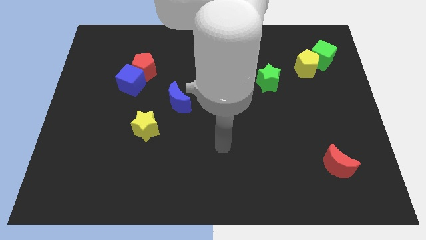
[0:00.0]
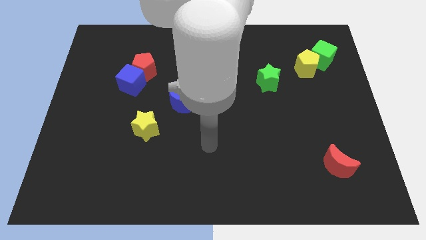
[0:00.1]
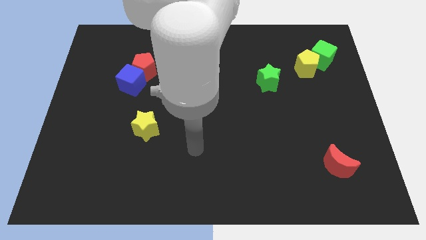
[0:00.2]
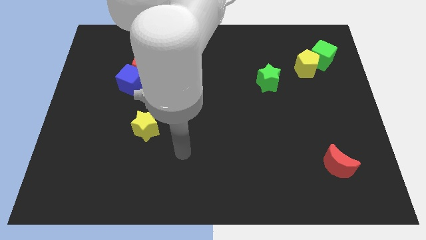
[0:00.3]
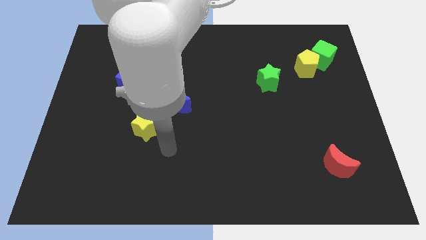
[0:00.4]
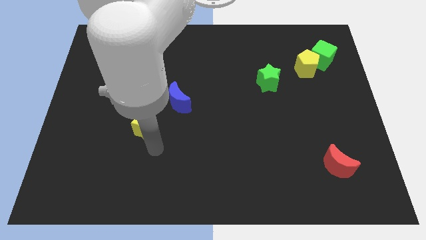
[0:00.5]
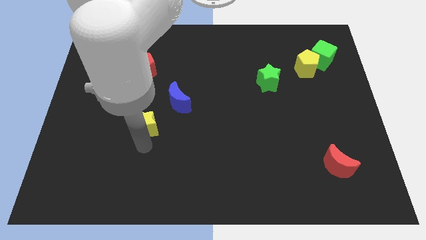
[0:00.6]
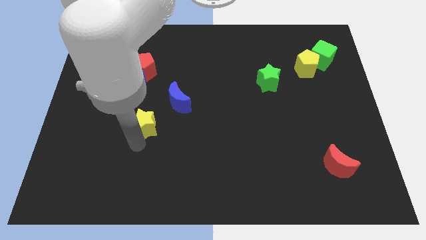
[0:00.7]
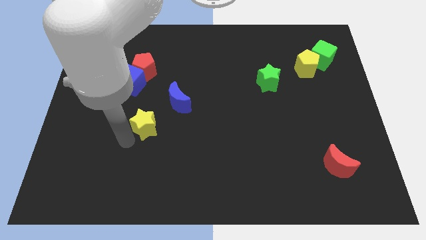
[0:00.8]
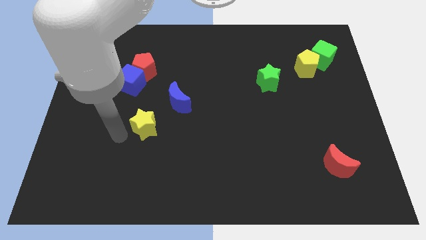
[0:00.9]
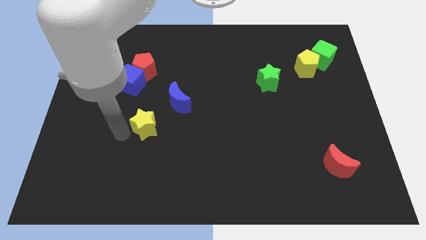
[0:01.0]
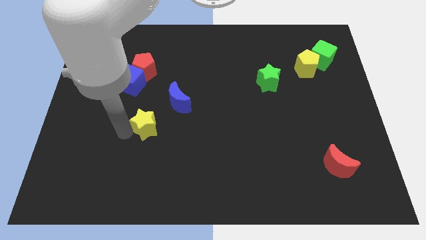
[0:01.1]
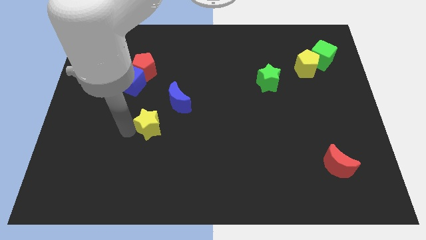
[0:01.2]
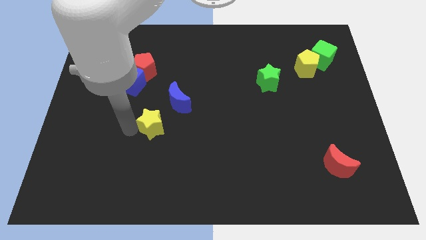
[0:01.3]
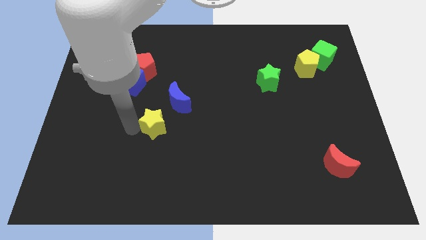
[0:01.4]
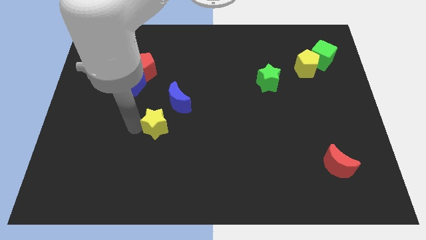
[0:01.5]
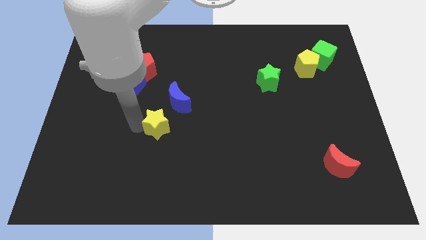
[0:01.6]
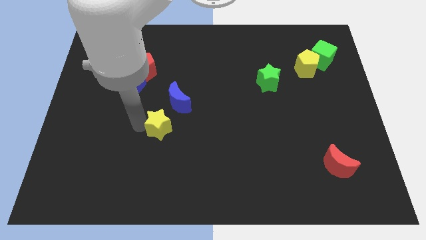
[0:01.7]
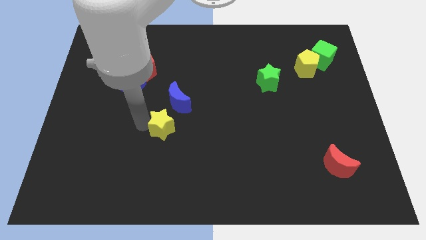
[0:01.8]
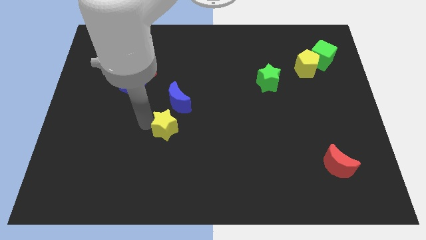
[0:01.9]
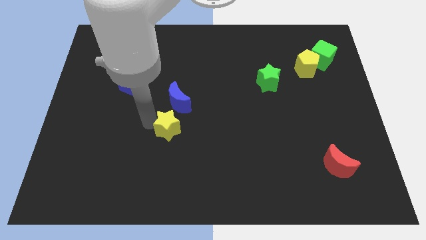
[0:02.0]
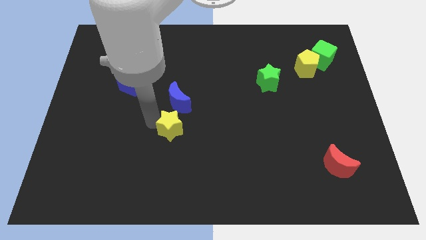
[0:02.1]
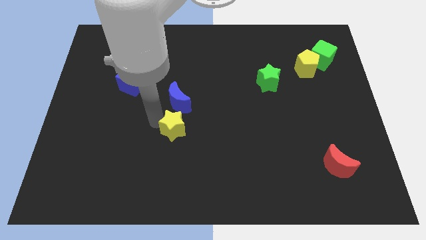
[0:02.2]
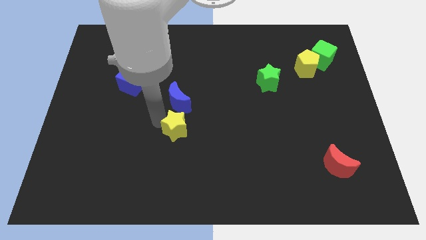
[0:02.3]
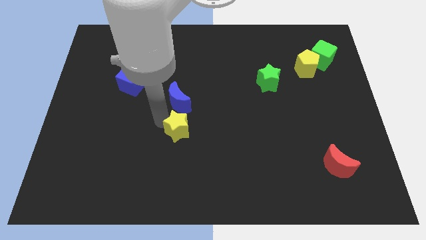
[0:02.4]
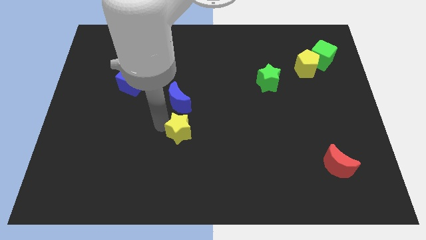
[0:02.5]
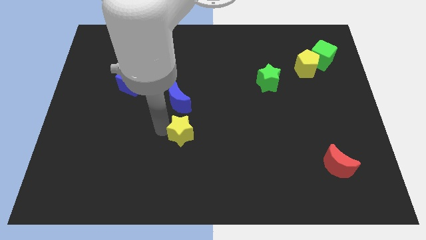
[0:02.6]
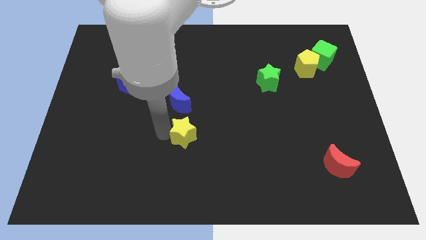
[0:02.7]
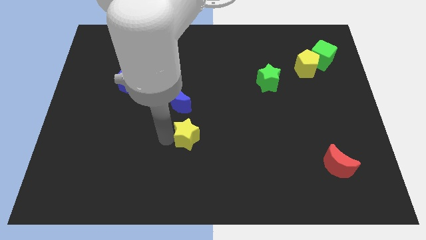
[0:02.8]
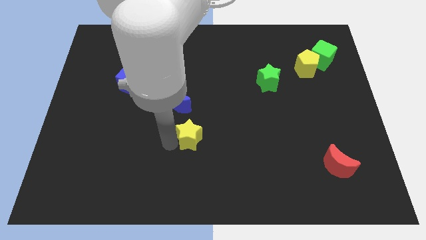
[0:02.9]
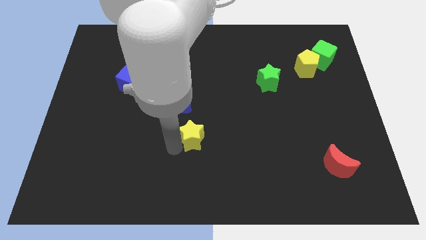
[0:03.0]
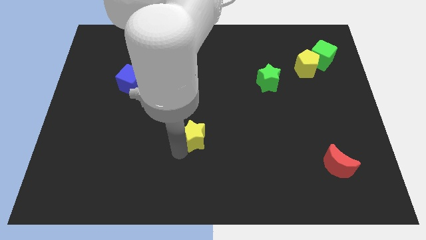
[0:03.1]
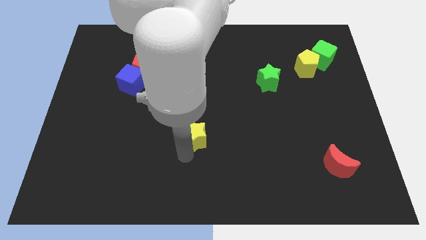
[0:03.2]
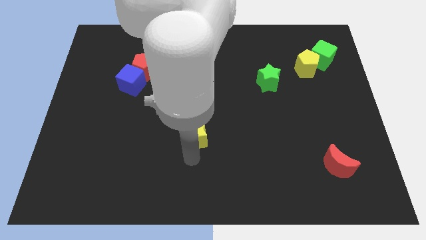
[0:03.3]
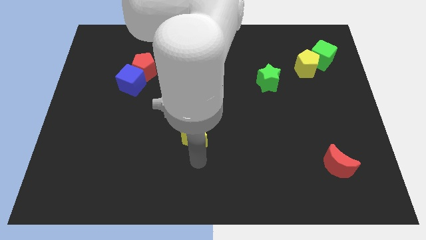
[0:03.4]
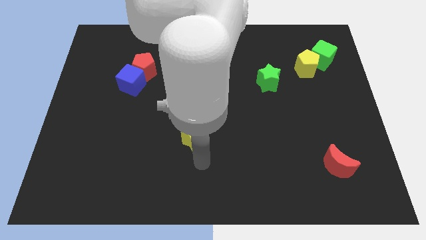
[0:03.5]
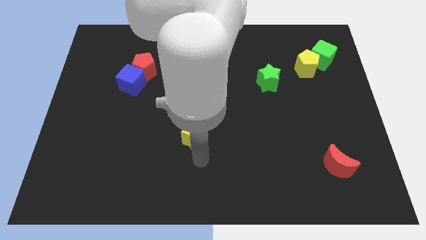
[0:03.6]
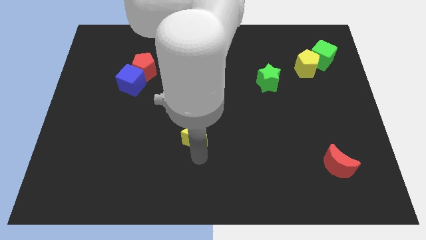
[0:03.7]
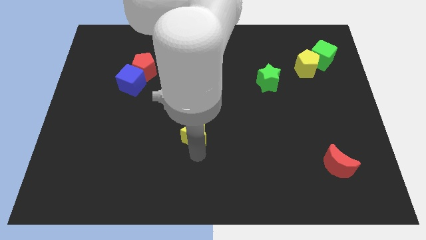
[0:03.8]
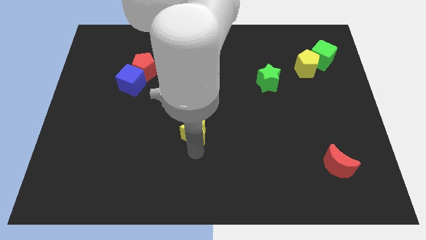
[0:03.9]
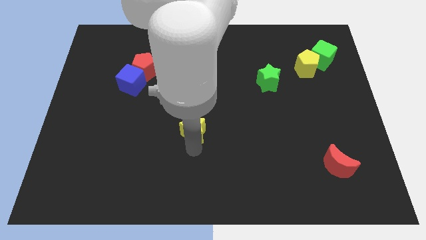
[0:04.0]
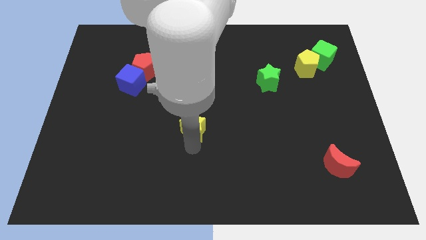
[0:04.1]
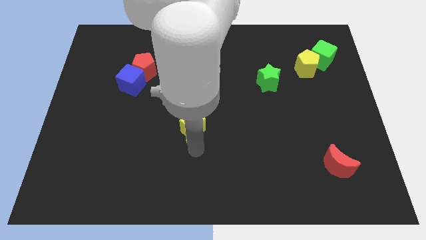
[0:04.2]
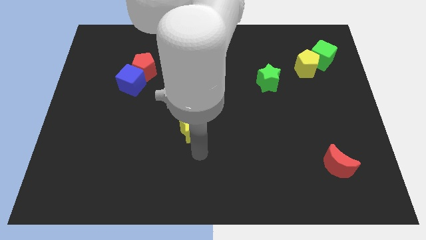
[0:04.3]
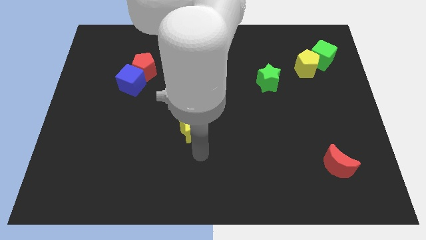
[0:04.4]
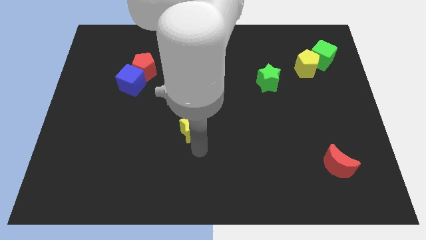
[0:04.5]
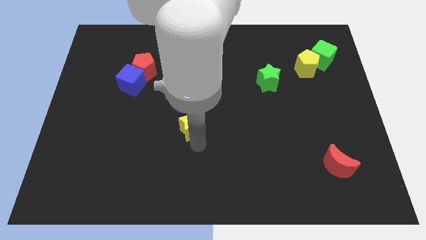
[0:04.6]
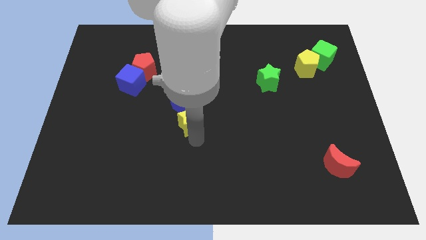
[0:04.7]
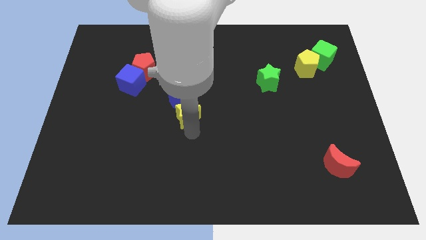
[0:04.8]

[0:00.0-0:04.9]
push the yellow star up and to the right a little

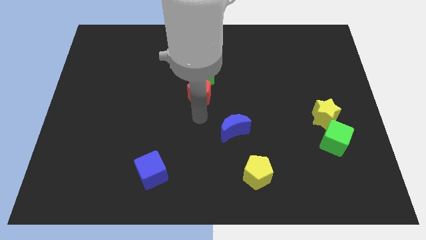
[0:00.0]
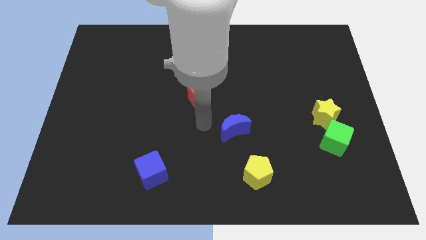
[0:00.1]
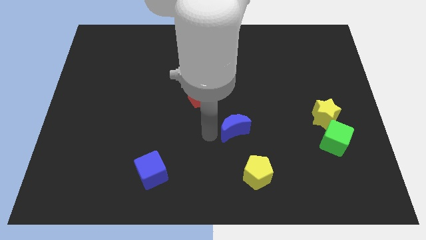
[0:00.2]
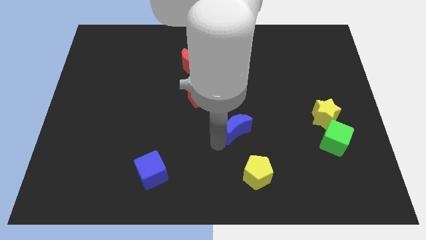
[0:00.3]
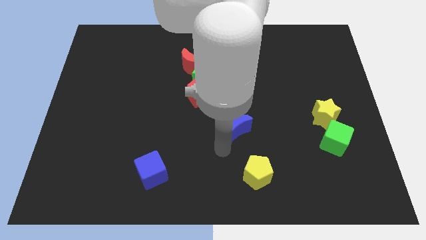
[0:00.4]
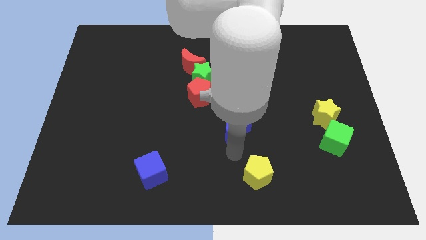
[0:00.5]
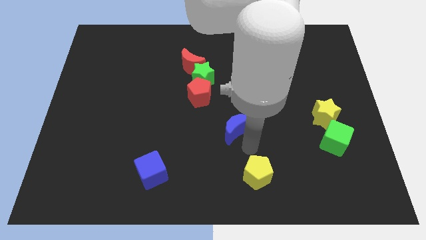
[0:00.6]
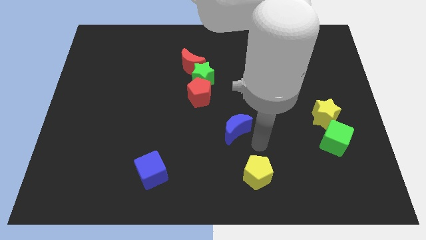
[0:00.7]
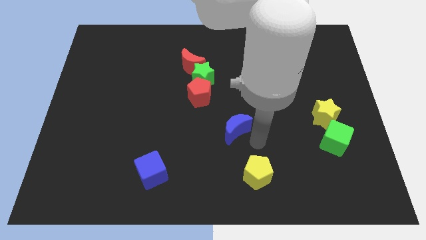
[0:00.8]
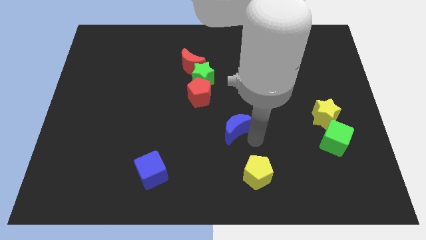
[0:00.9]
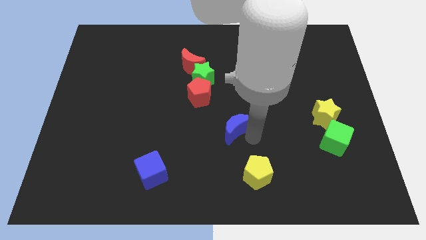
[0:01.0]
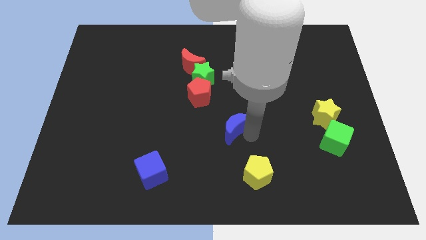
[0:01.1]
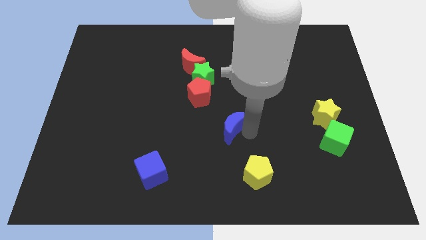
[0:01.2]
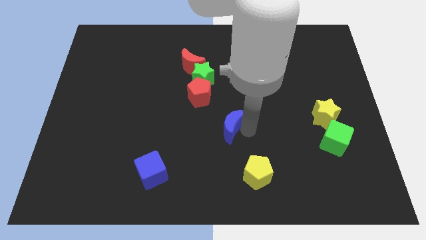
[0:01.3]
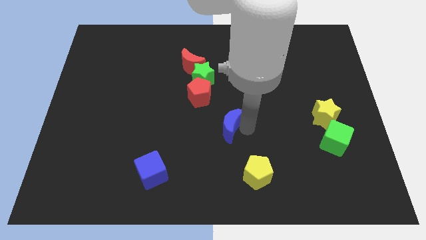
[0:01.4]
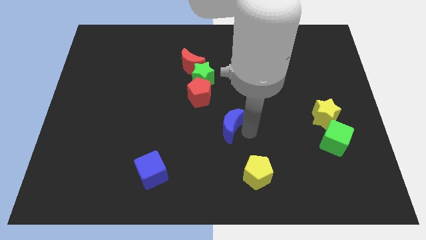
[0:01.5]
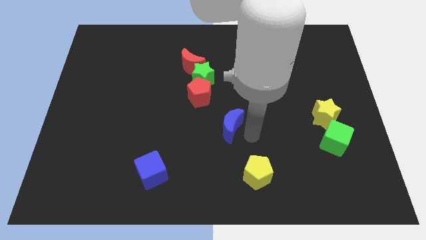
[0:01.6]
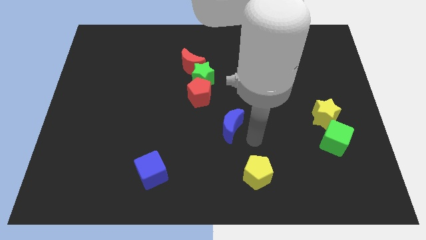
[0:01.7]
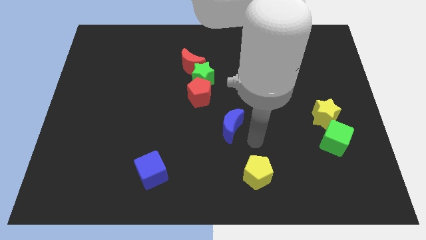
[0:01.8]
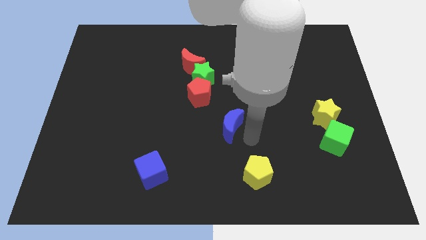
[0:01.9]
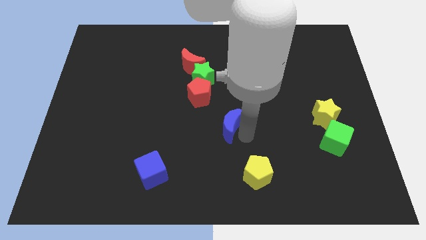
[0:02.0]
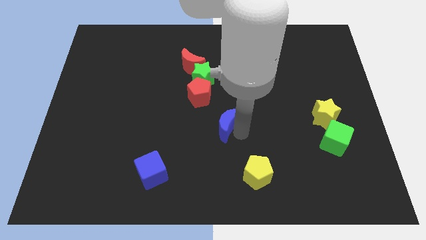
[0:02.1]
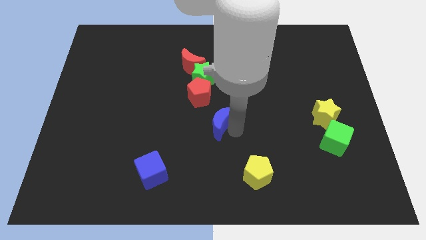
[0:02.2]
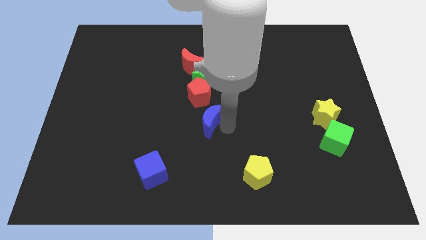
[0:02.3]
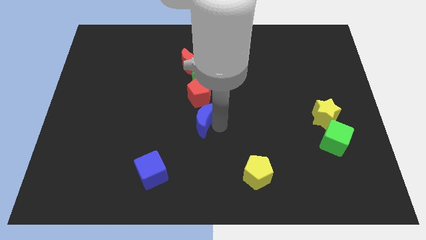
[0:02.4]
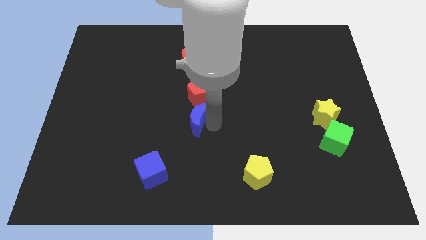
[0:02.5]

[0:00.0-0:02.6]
slightly move the blue moon up and left

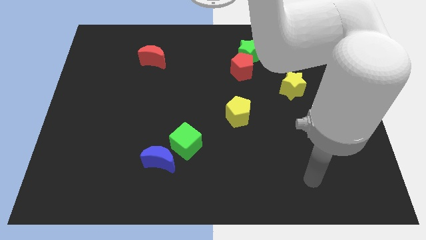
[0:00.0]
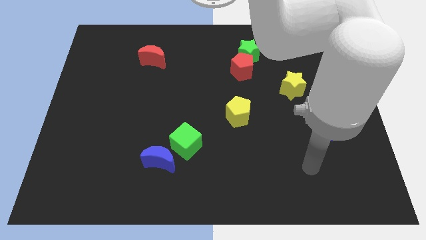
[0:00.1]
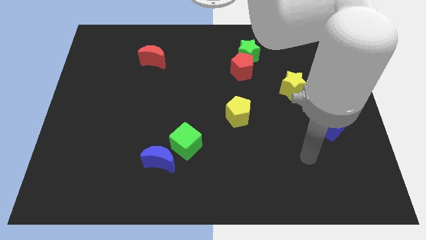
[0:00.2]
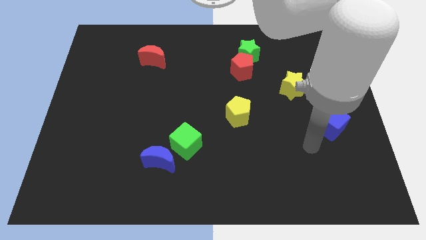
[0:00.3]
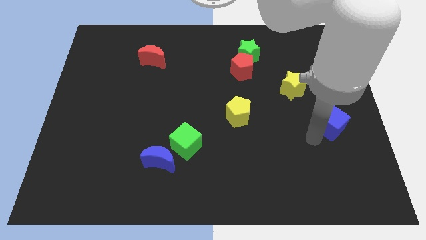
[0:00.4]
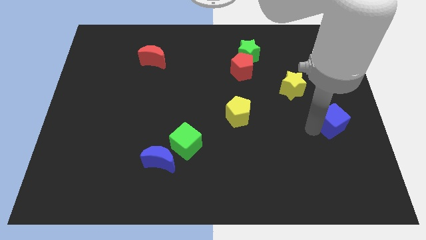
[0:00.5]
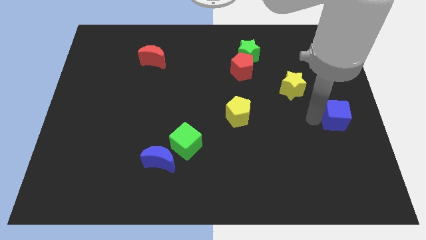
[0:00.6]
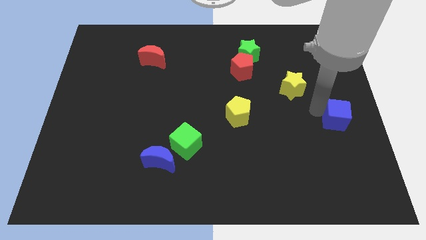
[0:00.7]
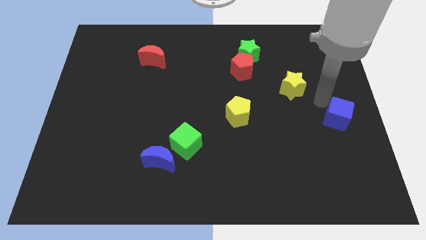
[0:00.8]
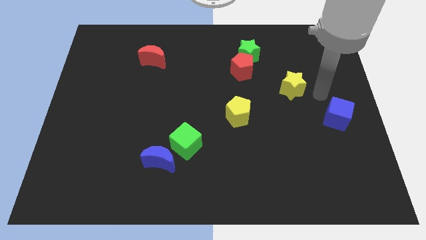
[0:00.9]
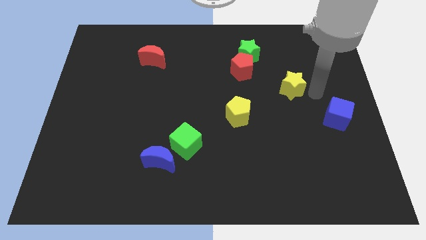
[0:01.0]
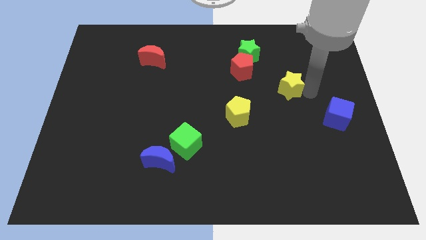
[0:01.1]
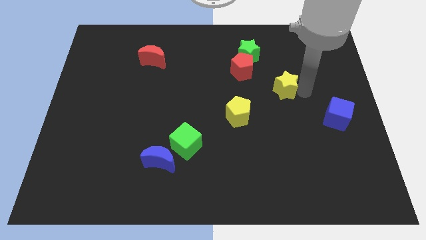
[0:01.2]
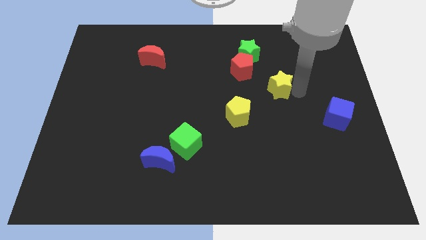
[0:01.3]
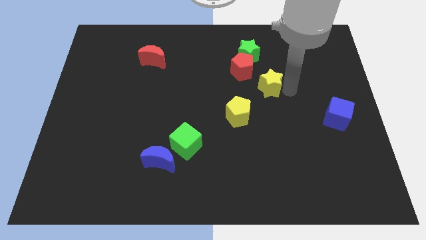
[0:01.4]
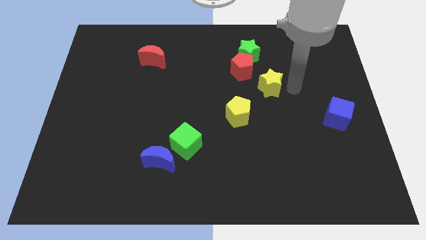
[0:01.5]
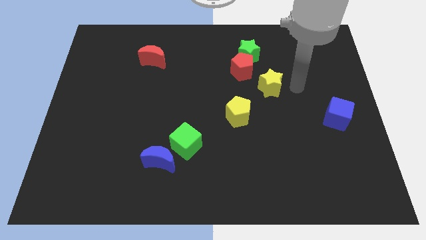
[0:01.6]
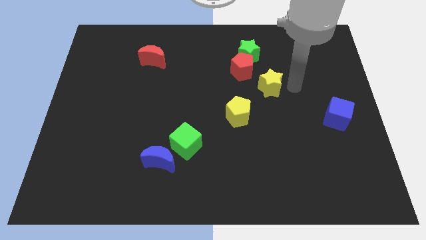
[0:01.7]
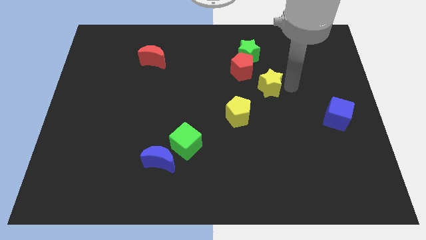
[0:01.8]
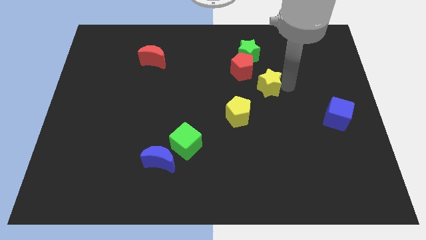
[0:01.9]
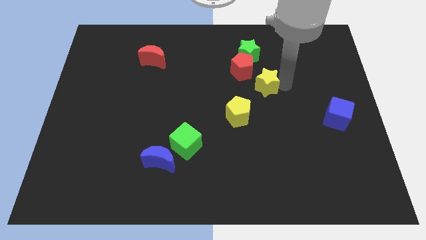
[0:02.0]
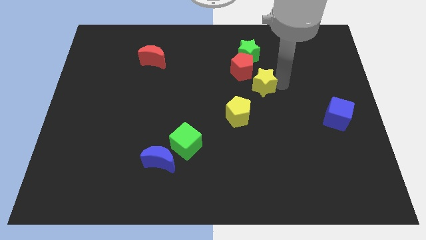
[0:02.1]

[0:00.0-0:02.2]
move the yellow star a little left
